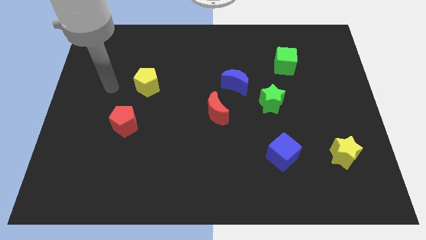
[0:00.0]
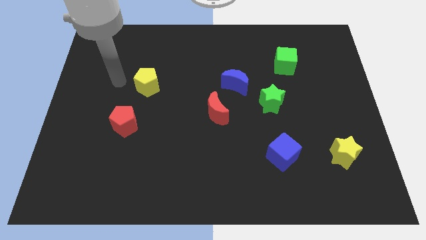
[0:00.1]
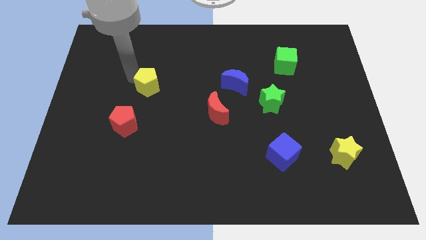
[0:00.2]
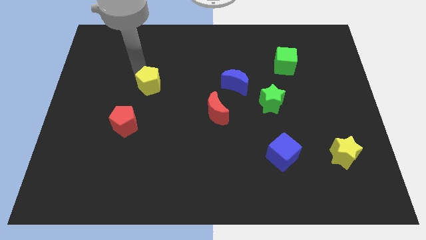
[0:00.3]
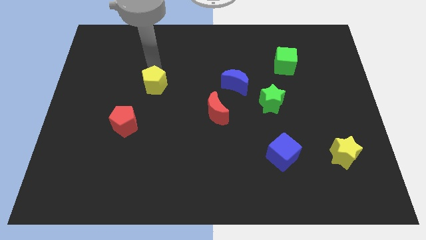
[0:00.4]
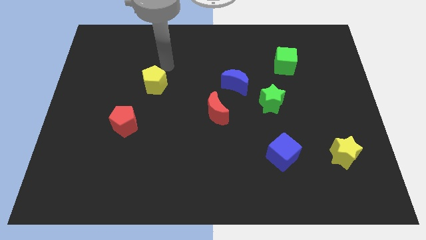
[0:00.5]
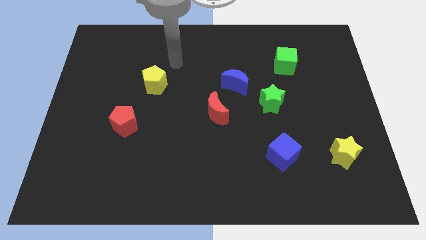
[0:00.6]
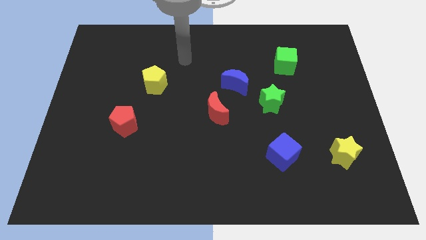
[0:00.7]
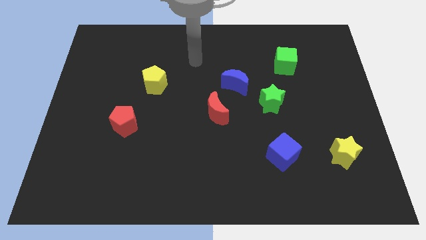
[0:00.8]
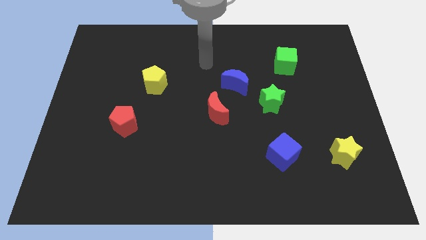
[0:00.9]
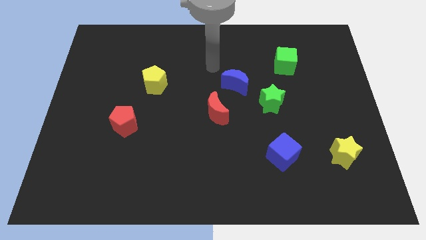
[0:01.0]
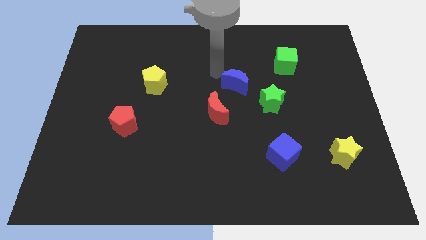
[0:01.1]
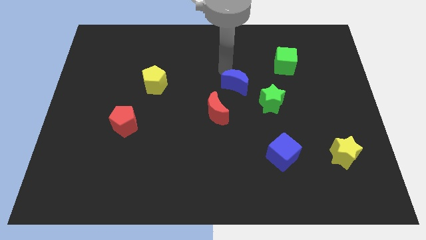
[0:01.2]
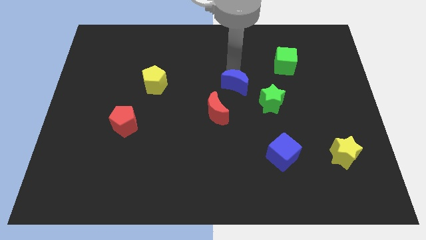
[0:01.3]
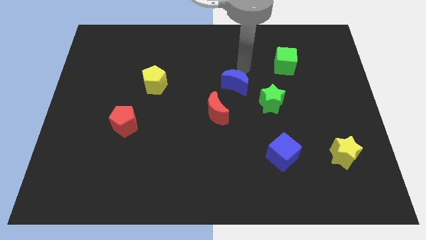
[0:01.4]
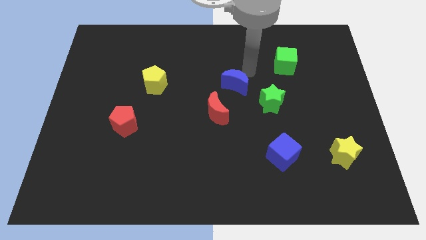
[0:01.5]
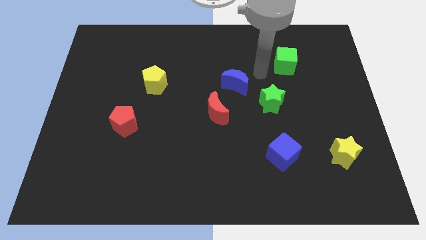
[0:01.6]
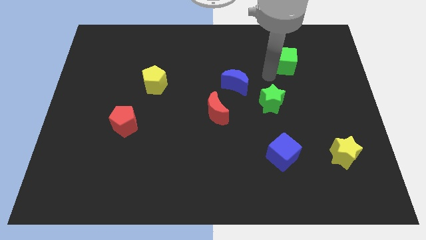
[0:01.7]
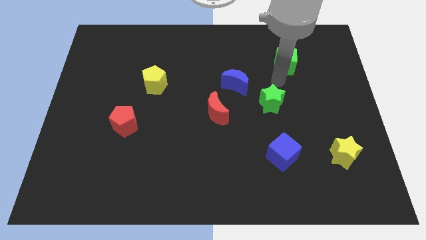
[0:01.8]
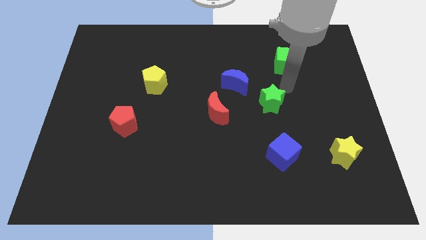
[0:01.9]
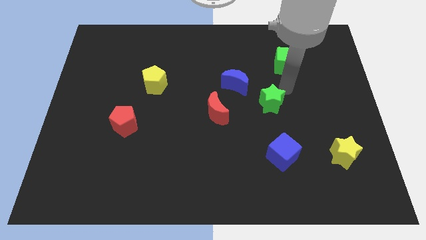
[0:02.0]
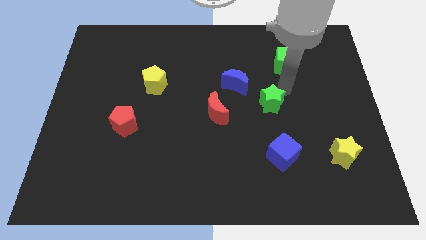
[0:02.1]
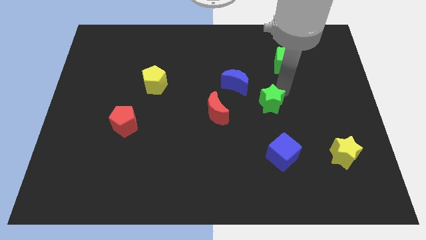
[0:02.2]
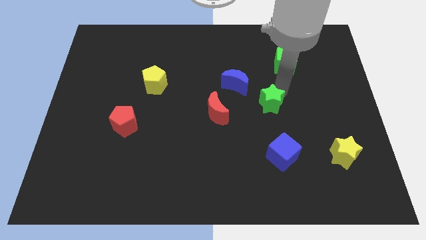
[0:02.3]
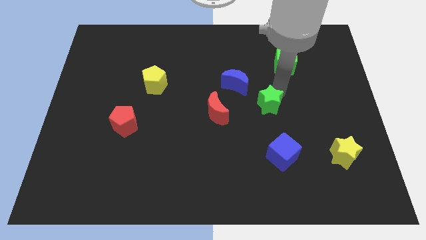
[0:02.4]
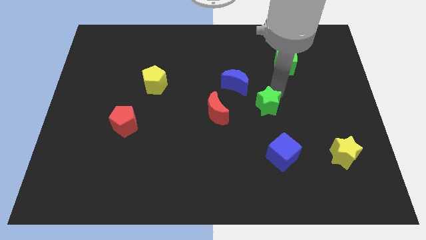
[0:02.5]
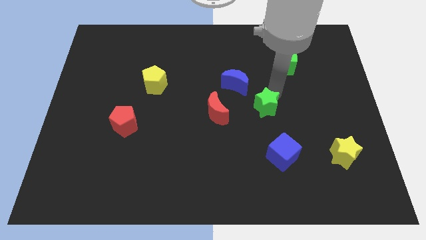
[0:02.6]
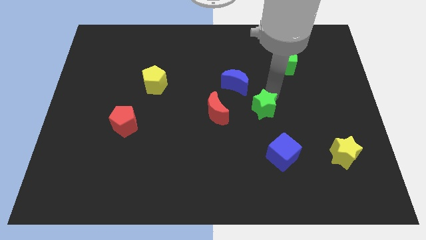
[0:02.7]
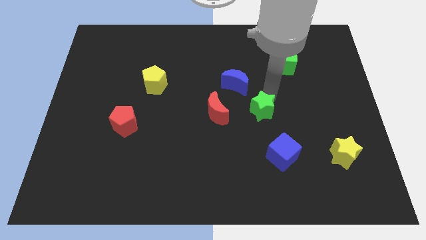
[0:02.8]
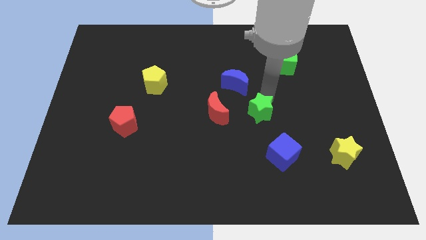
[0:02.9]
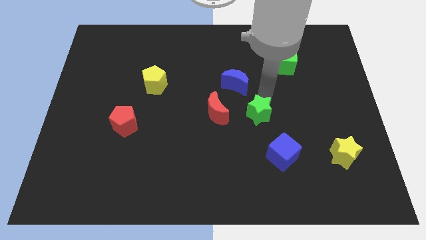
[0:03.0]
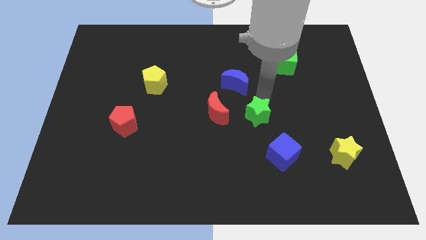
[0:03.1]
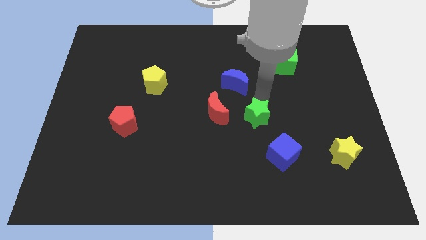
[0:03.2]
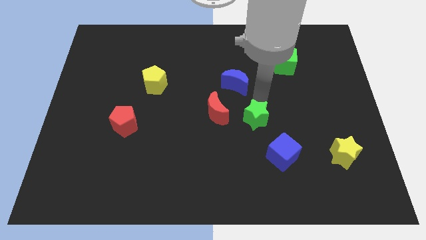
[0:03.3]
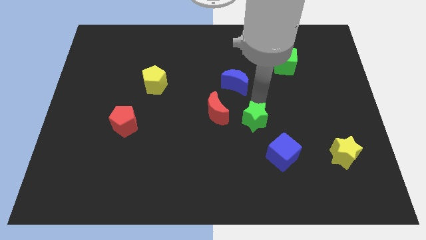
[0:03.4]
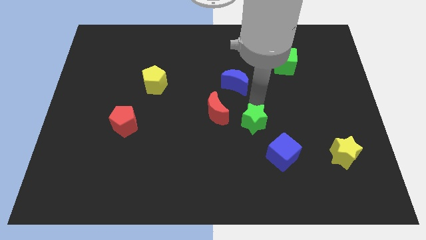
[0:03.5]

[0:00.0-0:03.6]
push the green star a little bit downwards and left

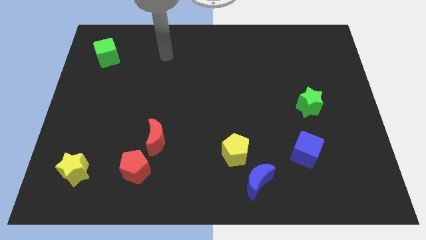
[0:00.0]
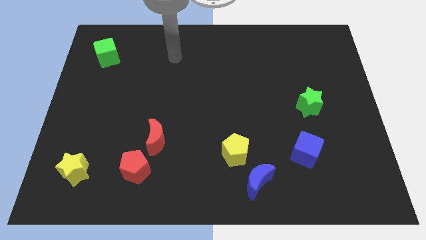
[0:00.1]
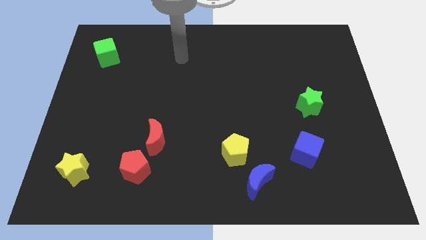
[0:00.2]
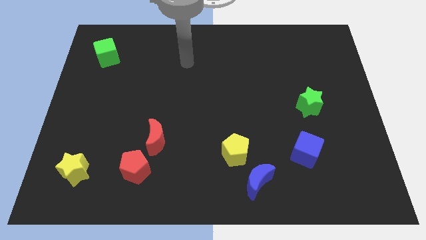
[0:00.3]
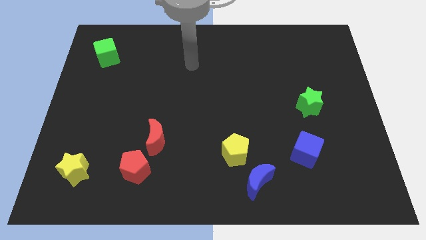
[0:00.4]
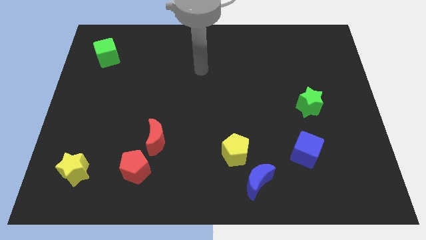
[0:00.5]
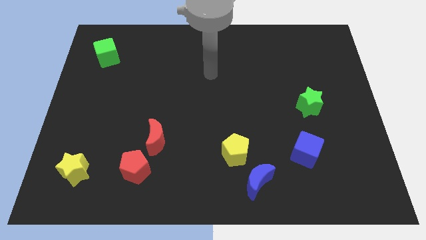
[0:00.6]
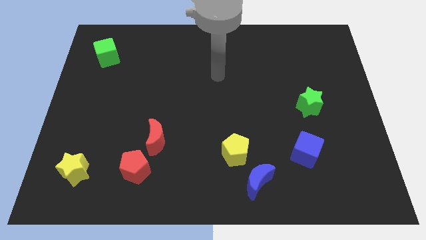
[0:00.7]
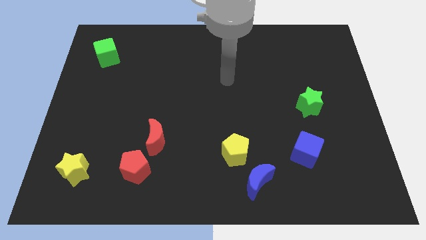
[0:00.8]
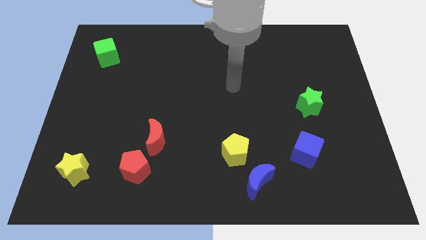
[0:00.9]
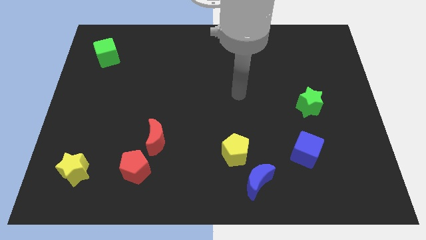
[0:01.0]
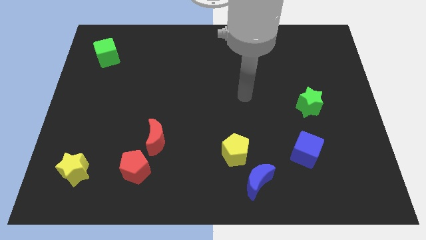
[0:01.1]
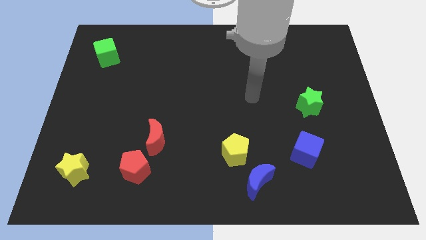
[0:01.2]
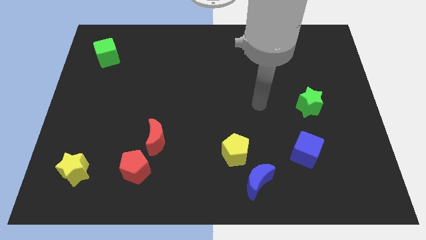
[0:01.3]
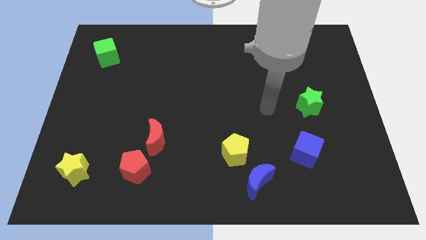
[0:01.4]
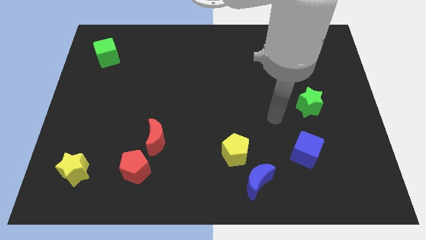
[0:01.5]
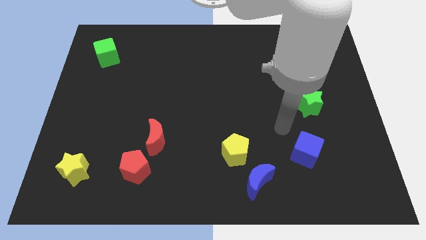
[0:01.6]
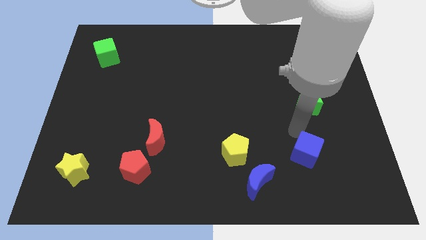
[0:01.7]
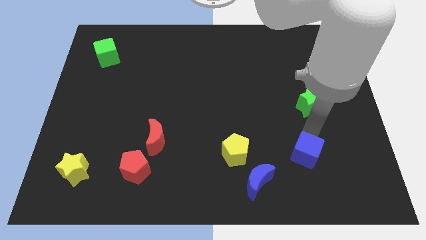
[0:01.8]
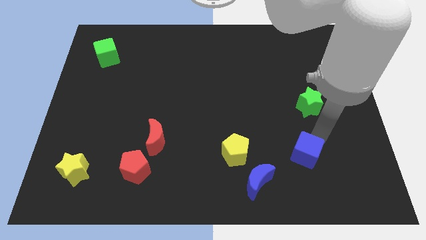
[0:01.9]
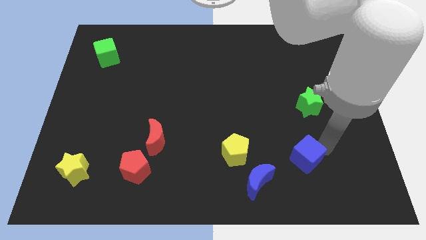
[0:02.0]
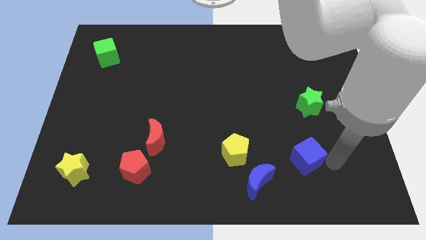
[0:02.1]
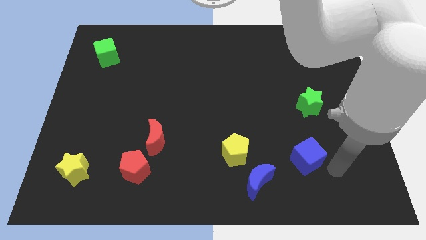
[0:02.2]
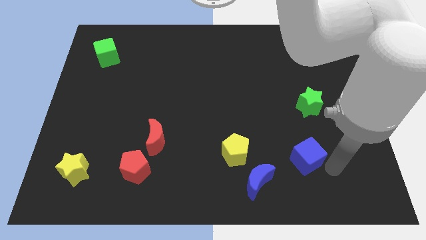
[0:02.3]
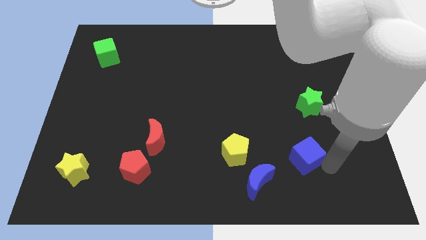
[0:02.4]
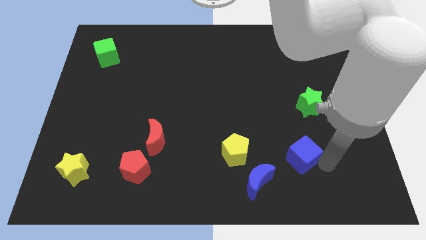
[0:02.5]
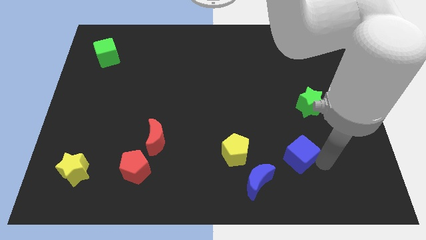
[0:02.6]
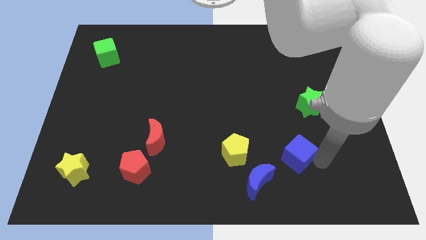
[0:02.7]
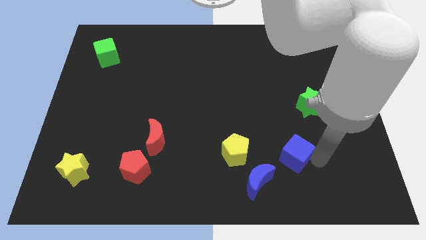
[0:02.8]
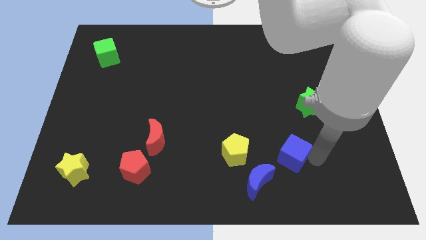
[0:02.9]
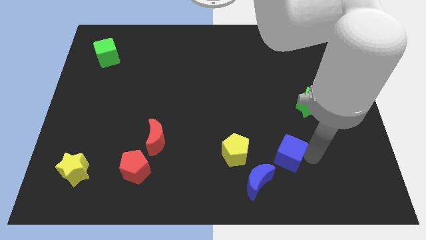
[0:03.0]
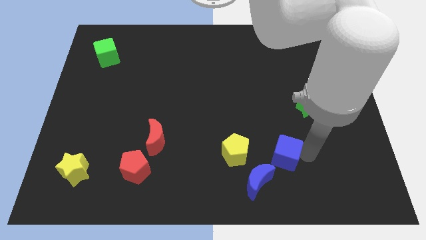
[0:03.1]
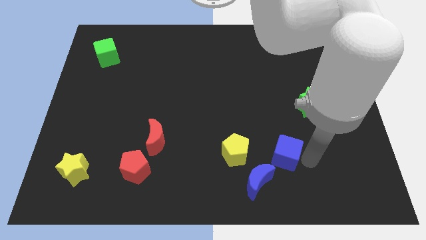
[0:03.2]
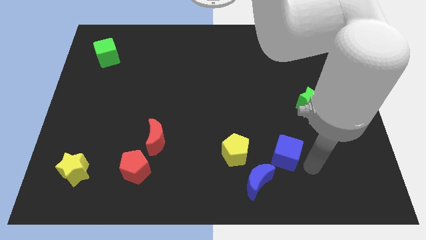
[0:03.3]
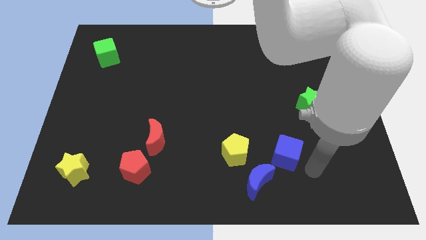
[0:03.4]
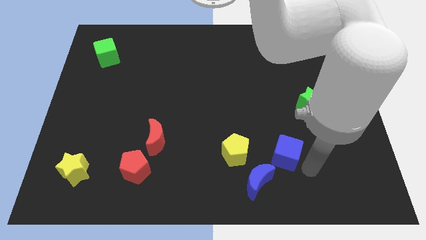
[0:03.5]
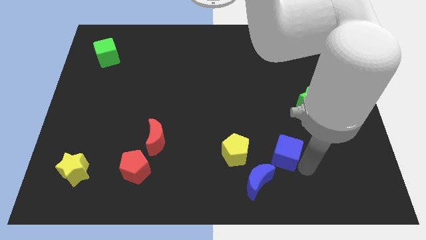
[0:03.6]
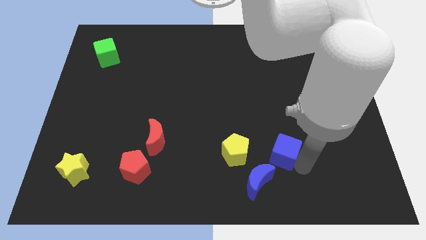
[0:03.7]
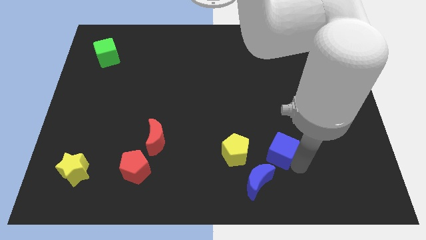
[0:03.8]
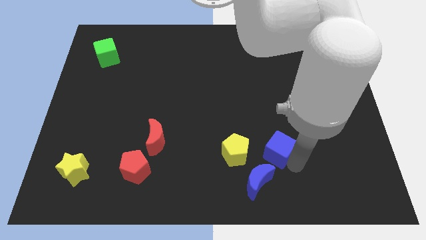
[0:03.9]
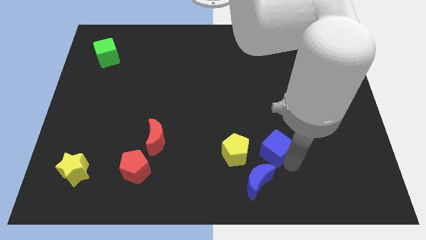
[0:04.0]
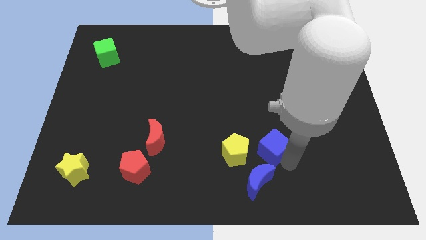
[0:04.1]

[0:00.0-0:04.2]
slide the blue cube slightly to the left

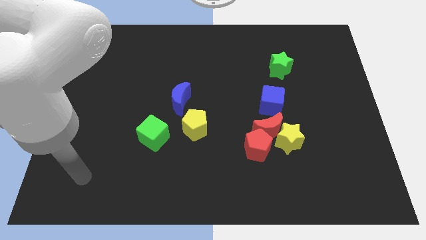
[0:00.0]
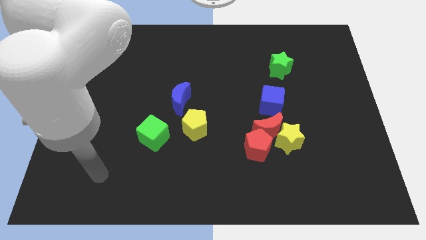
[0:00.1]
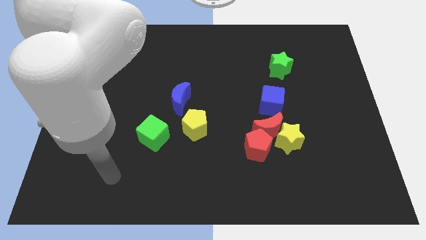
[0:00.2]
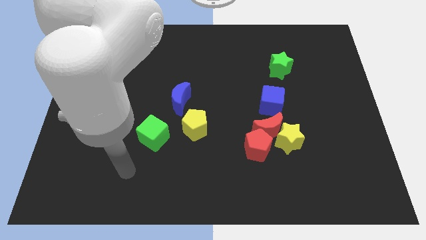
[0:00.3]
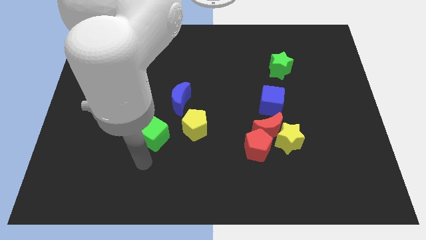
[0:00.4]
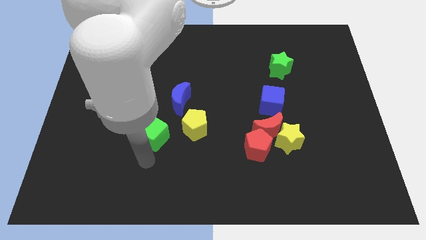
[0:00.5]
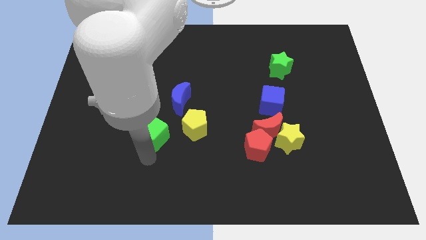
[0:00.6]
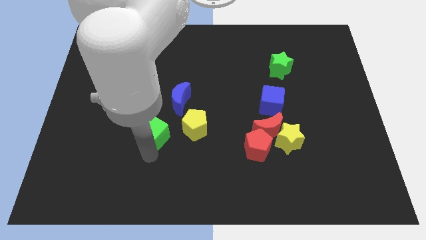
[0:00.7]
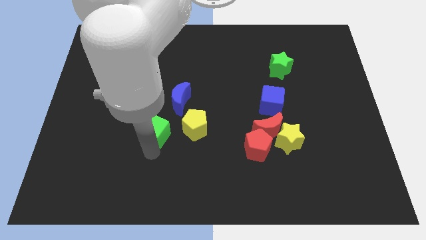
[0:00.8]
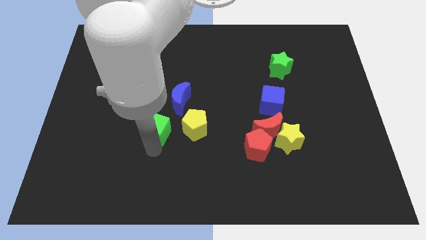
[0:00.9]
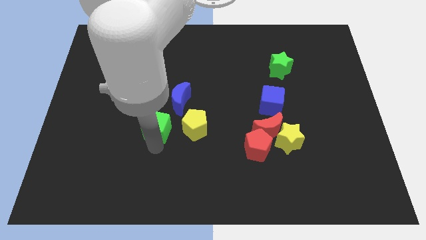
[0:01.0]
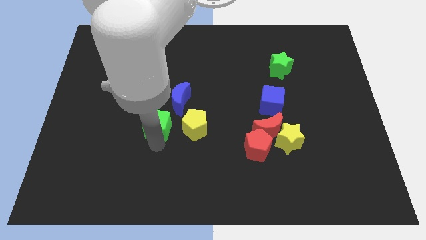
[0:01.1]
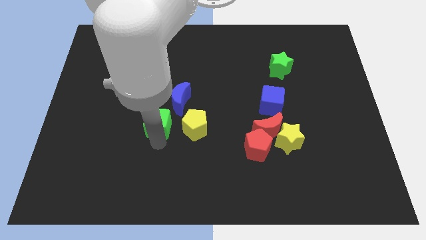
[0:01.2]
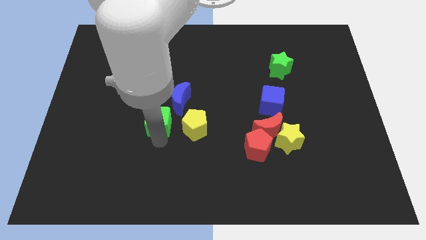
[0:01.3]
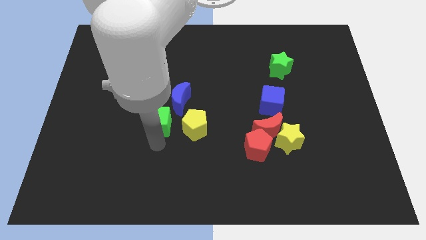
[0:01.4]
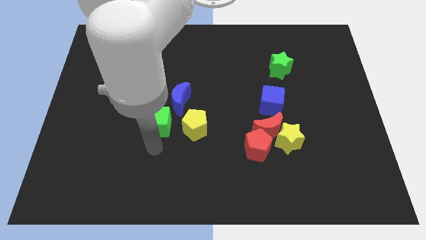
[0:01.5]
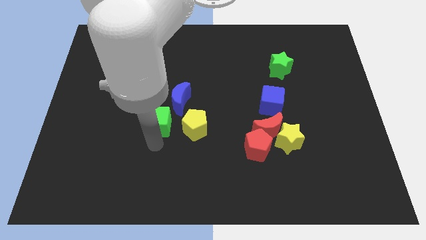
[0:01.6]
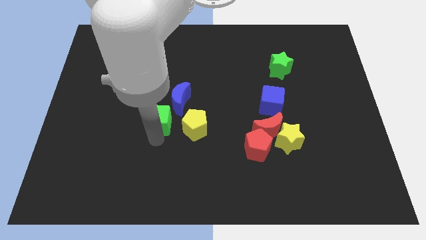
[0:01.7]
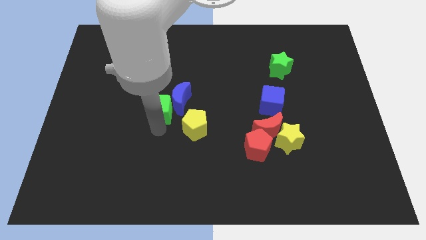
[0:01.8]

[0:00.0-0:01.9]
slide the green cube slightly upwards
